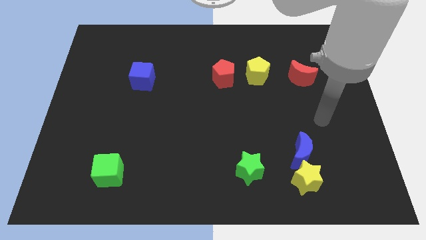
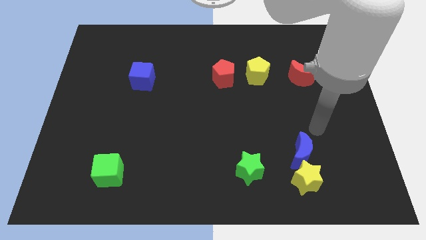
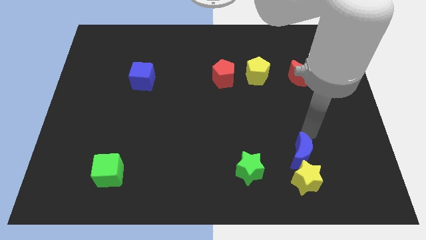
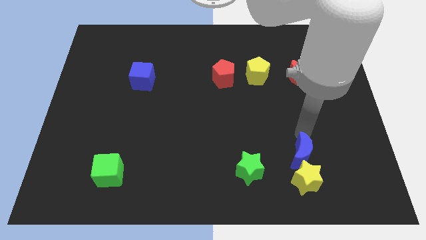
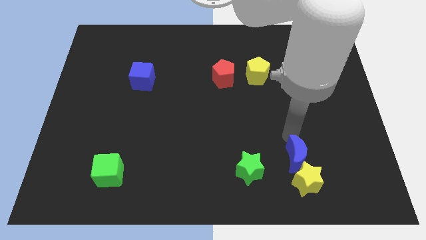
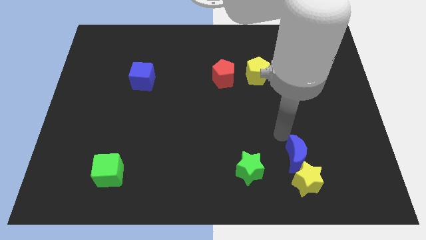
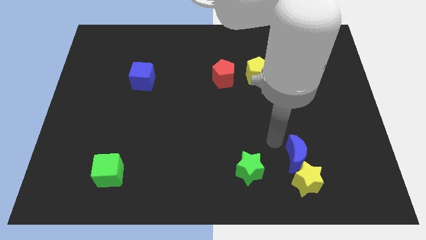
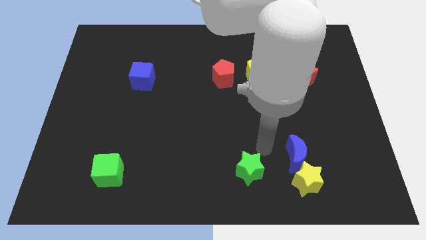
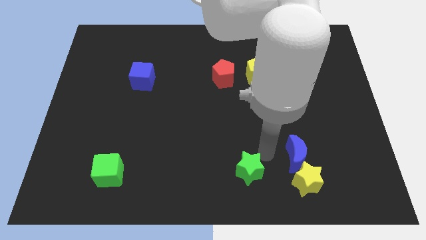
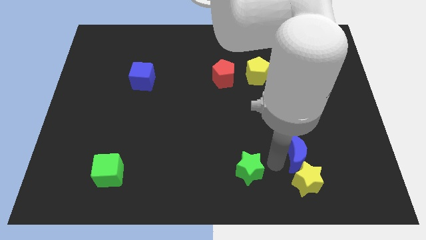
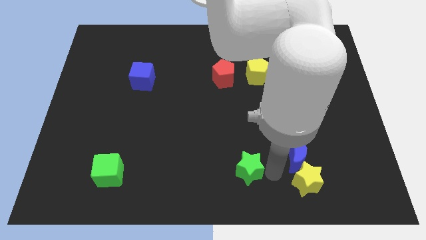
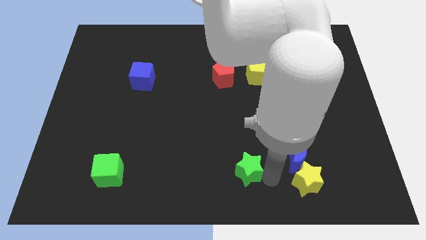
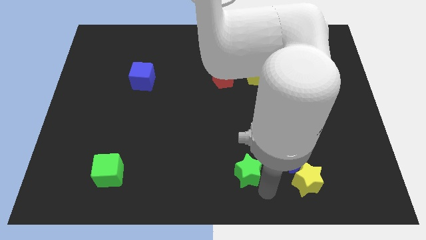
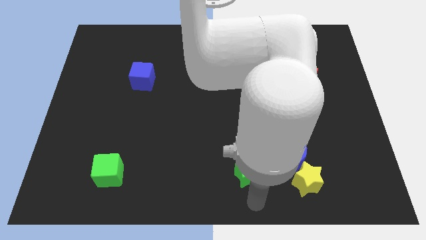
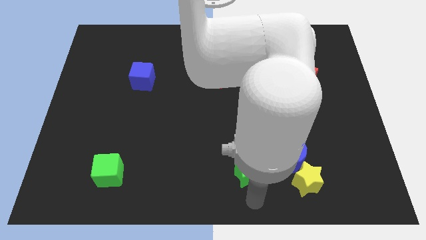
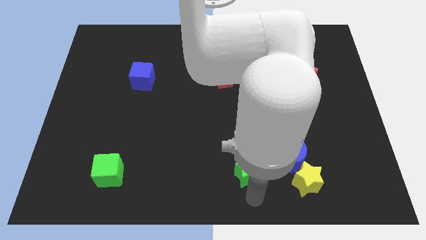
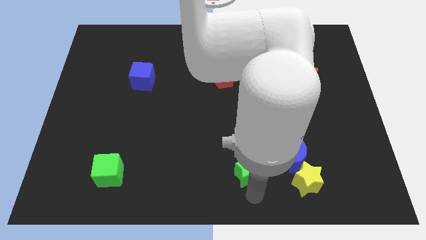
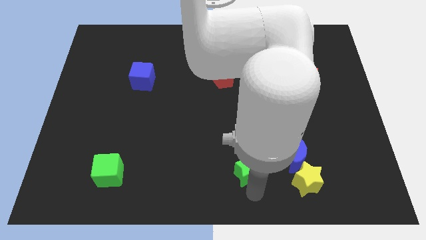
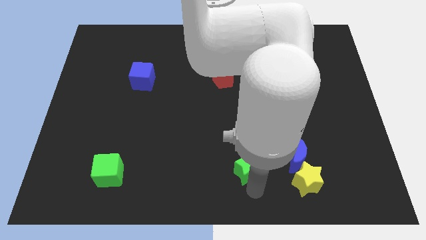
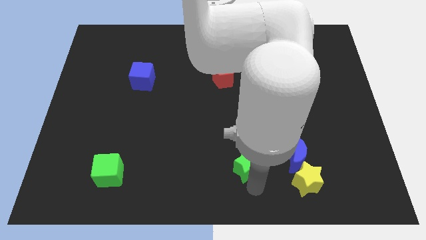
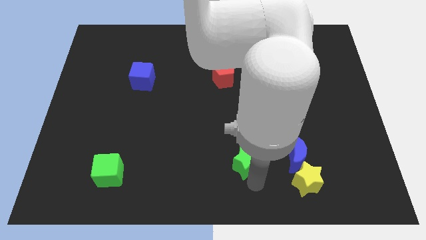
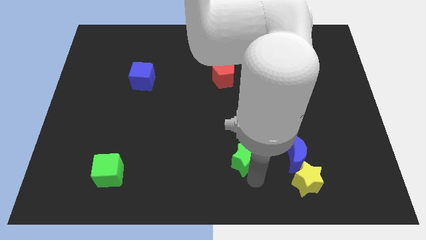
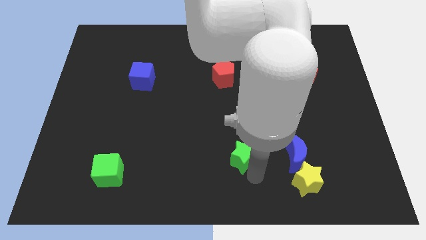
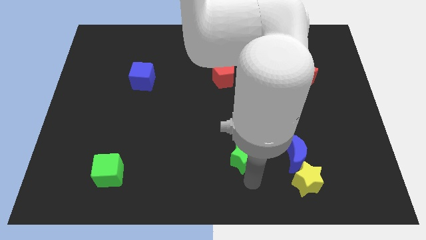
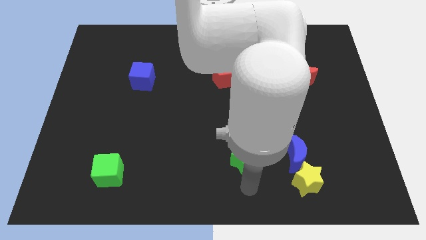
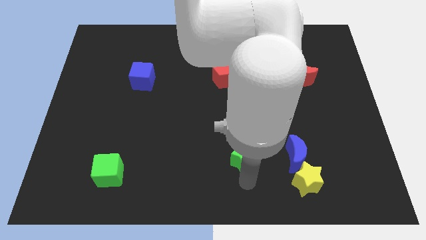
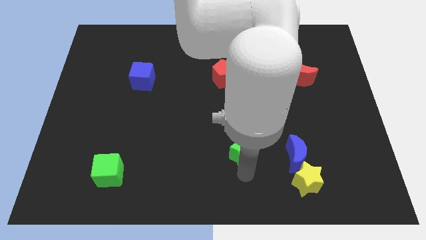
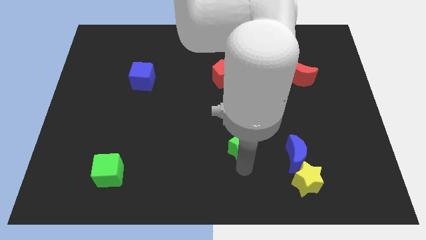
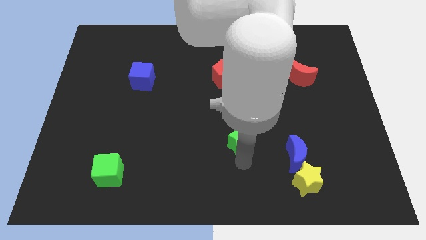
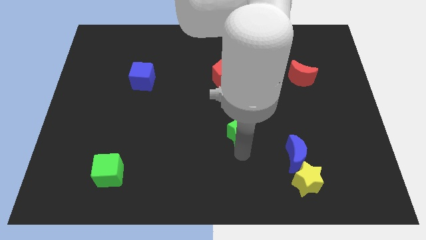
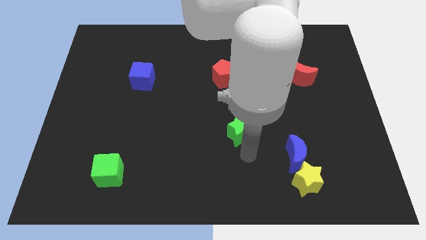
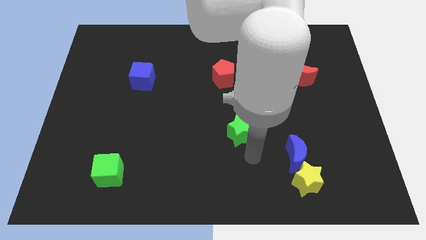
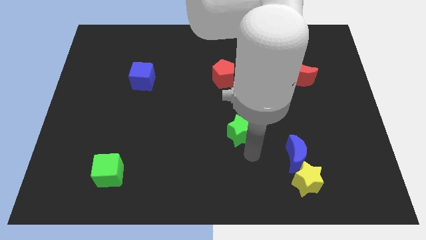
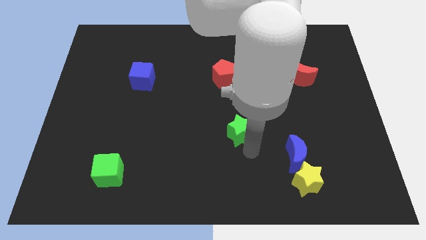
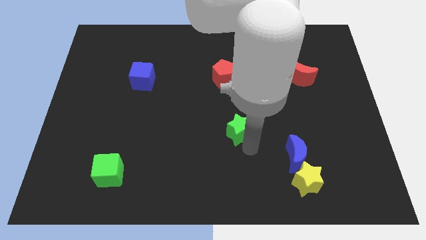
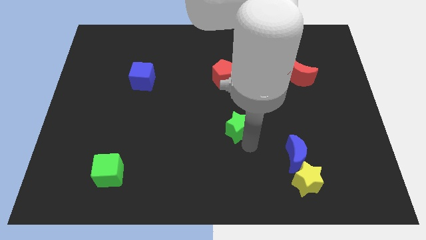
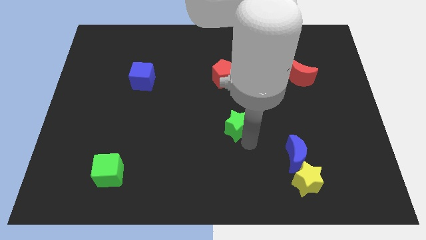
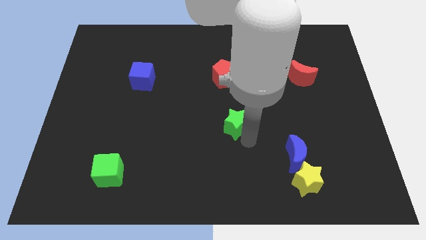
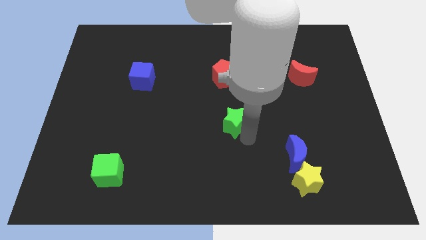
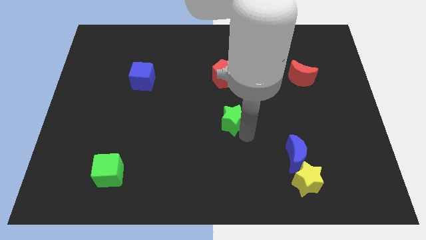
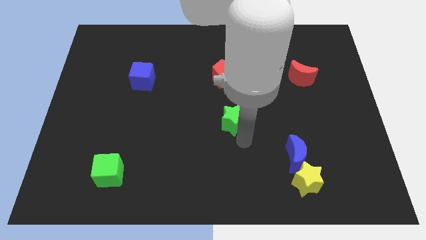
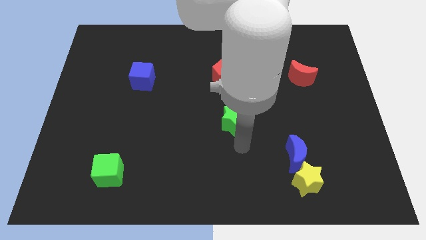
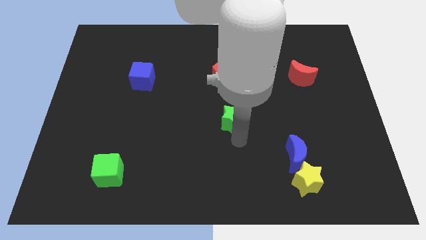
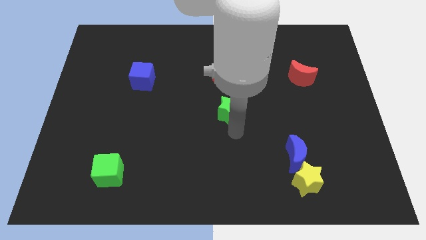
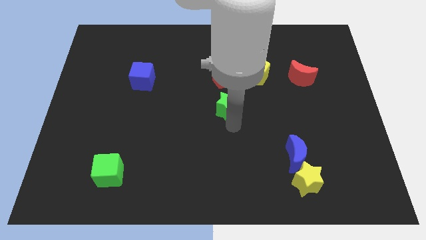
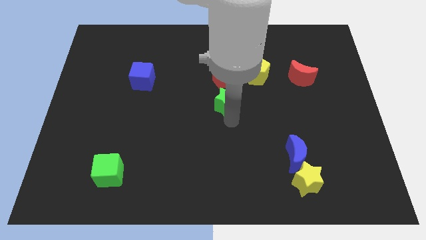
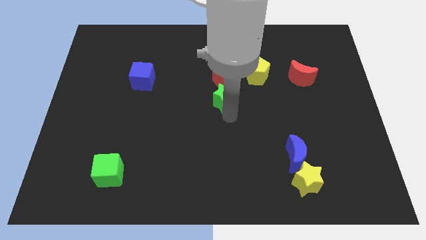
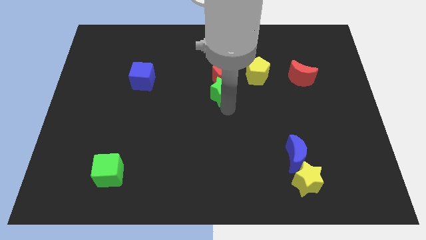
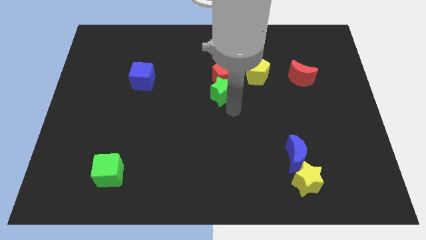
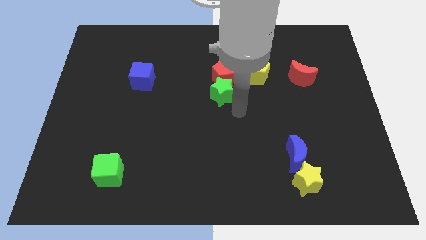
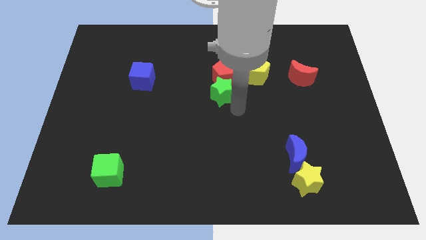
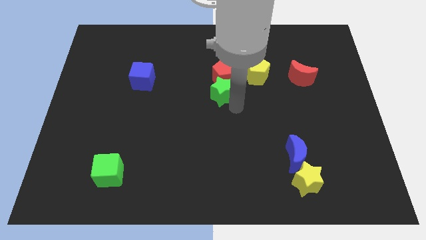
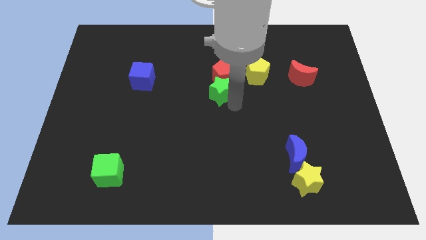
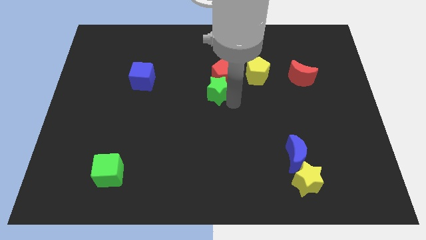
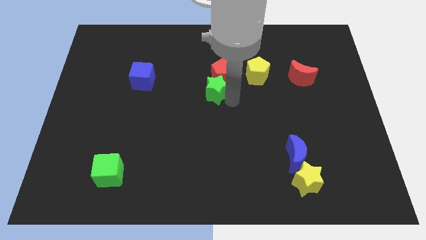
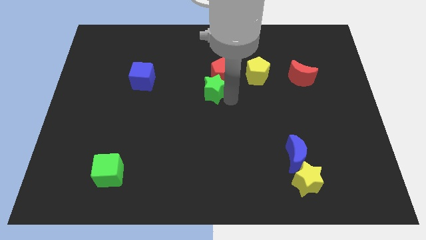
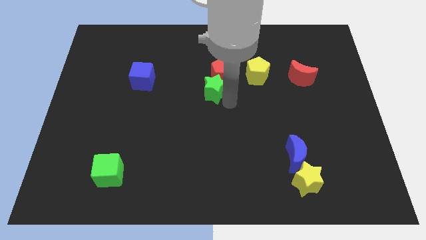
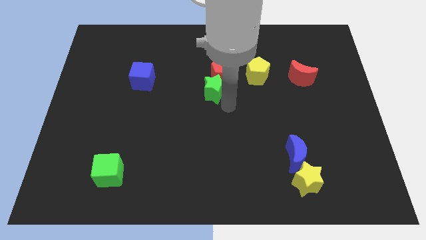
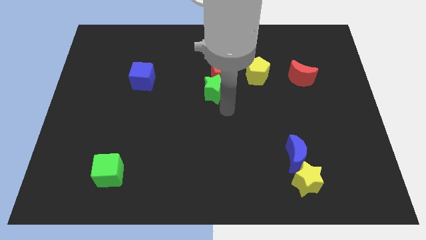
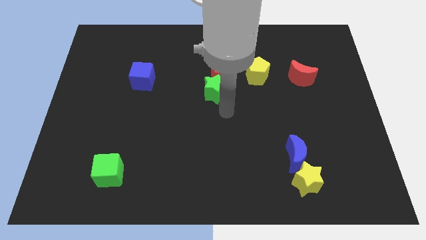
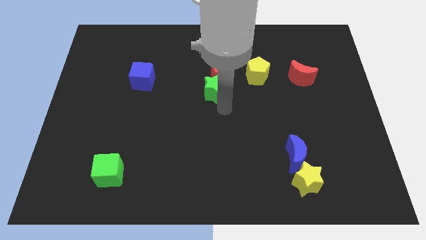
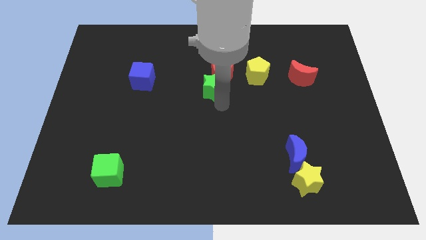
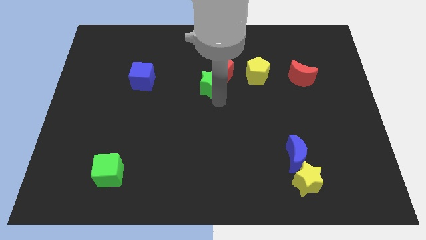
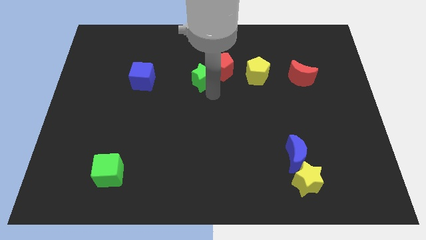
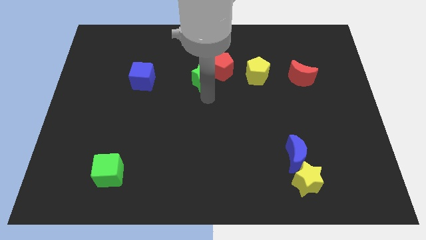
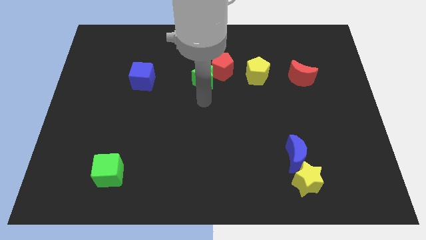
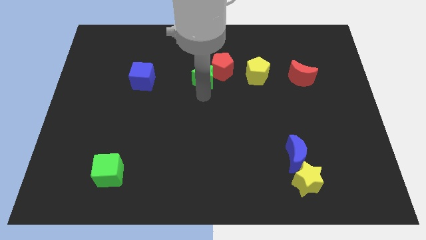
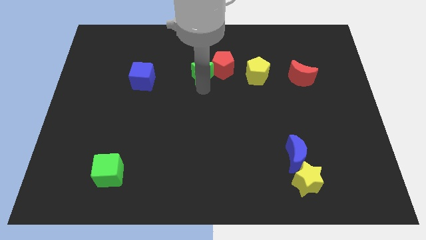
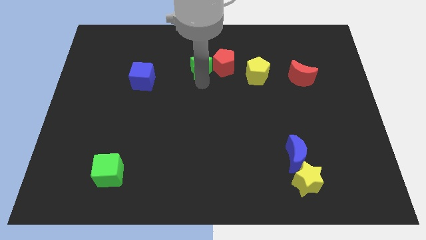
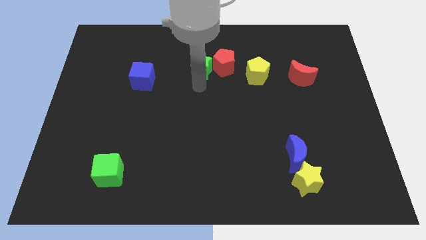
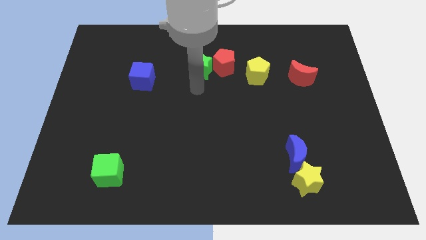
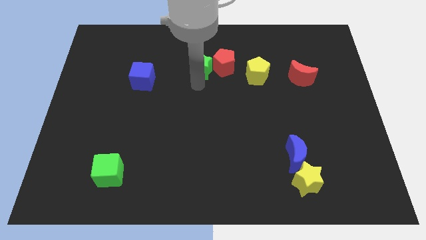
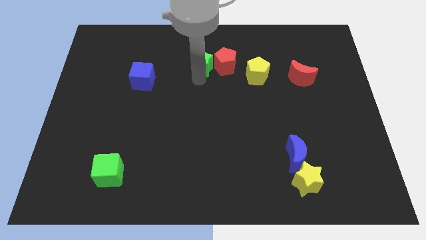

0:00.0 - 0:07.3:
move the green star diagonally up and to the left of the red pentagon
